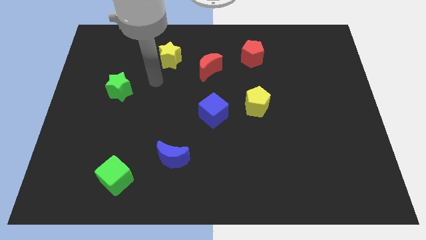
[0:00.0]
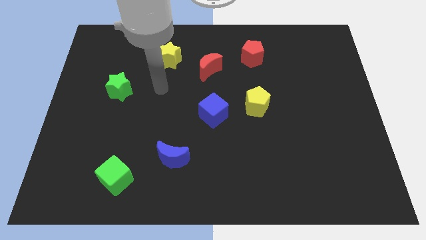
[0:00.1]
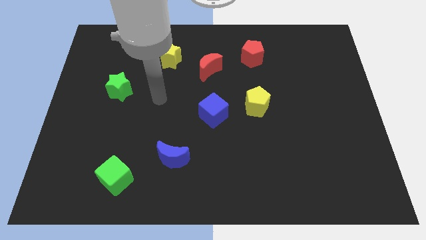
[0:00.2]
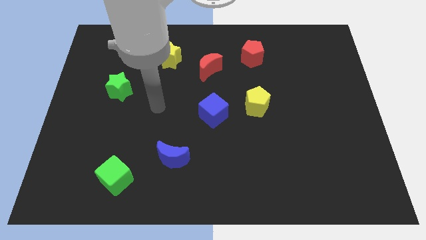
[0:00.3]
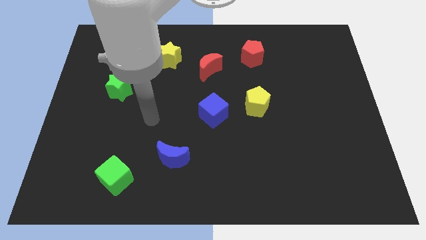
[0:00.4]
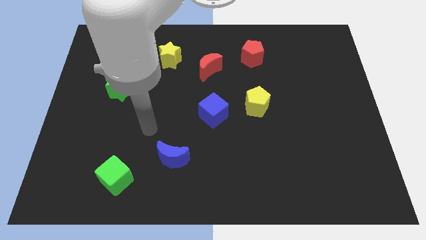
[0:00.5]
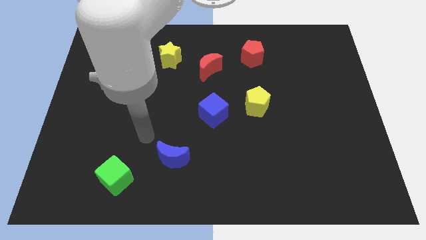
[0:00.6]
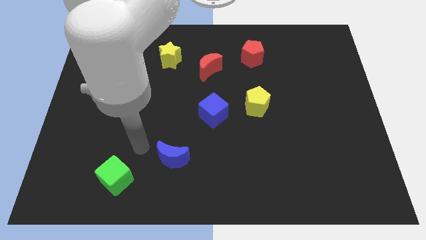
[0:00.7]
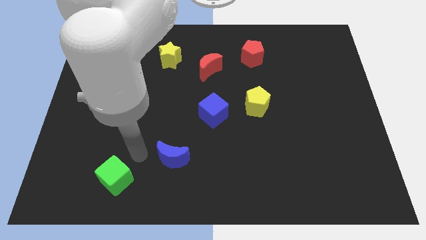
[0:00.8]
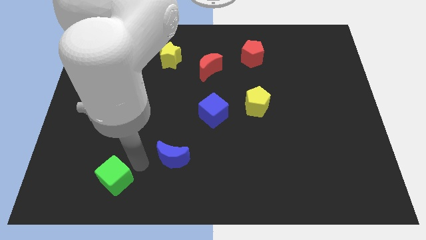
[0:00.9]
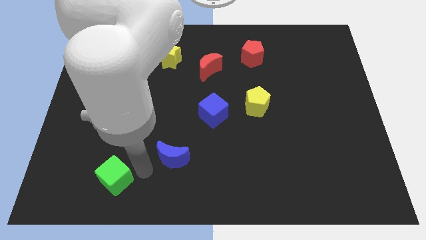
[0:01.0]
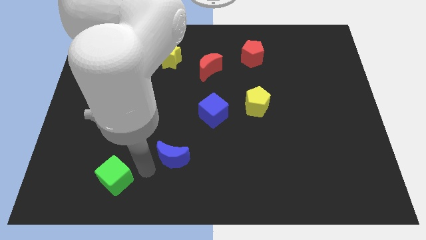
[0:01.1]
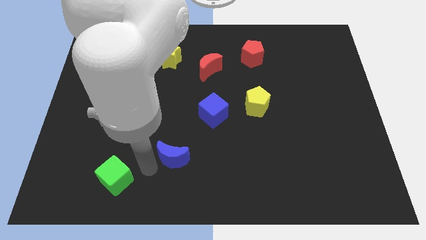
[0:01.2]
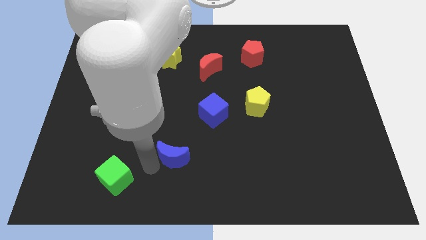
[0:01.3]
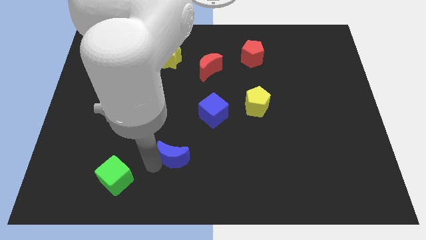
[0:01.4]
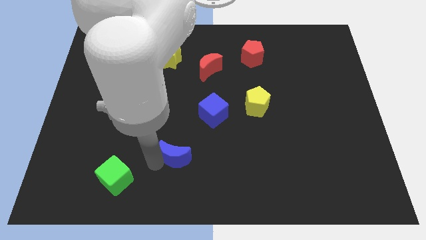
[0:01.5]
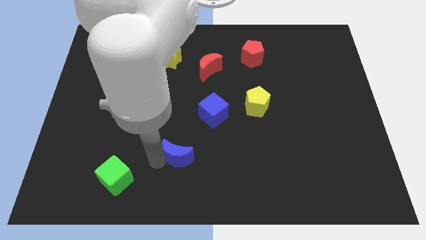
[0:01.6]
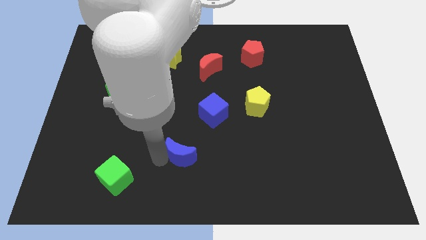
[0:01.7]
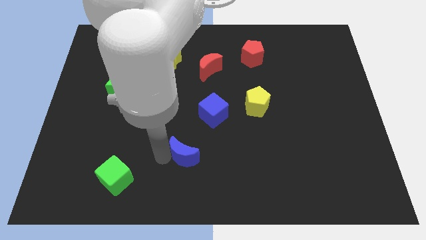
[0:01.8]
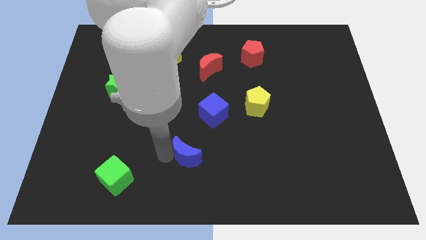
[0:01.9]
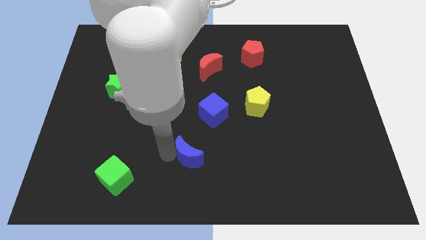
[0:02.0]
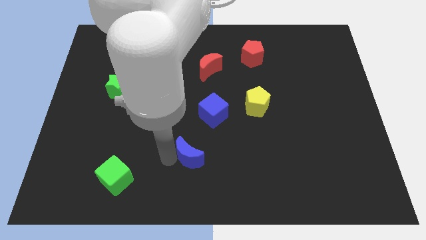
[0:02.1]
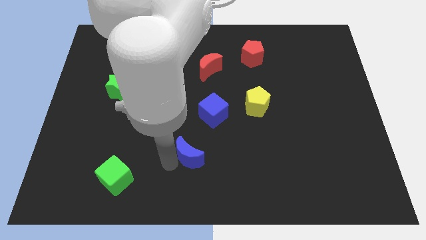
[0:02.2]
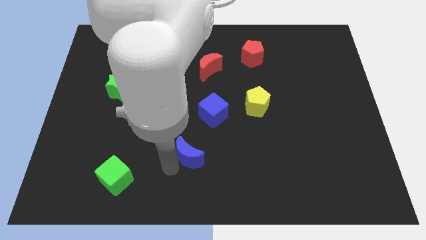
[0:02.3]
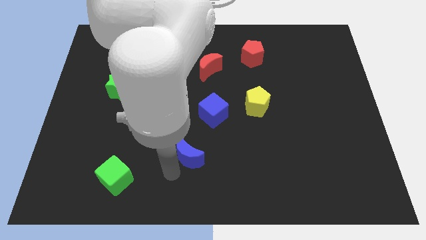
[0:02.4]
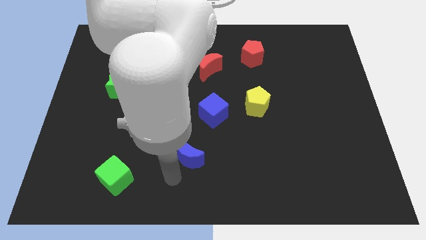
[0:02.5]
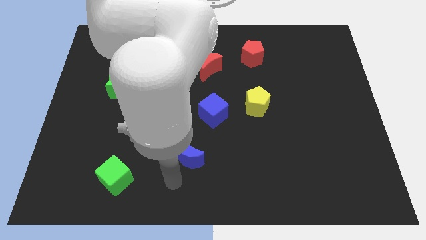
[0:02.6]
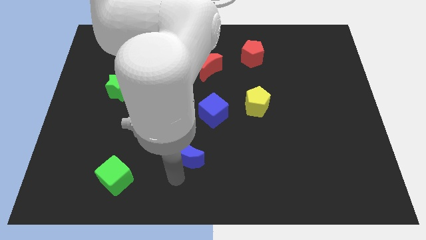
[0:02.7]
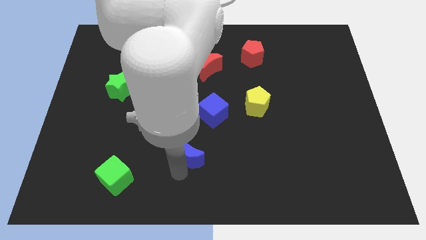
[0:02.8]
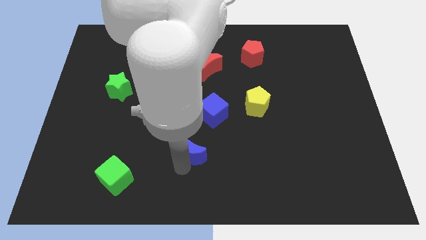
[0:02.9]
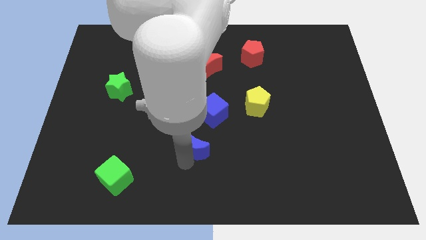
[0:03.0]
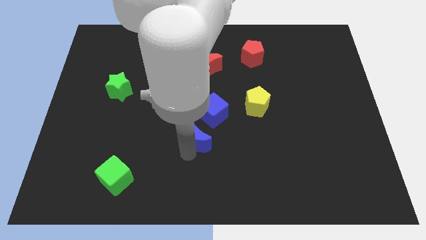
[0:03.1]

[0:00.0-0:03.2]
slightly slide the blue moon up and to the right diagonally

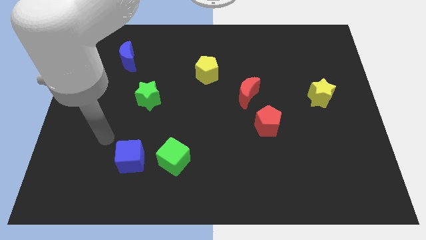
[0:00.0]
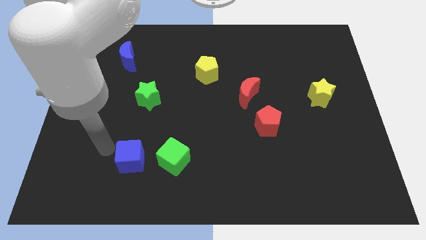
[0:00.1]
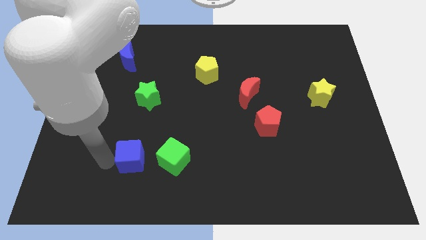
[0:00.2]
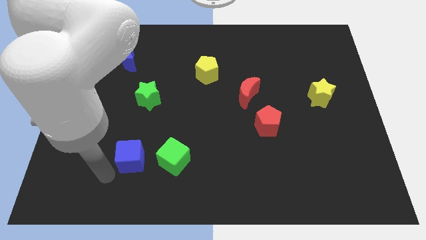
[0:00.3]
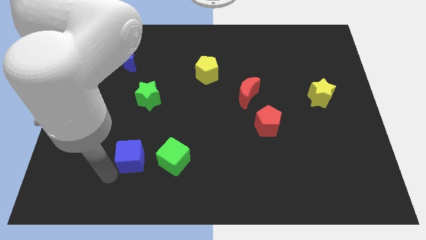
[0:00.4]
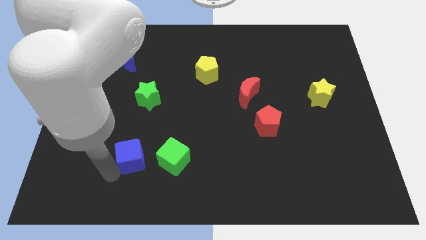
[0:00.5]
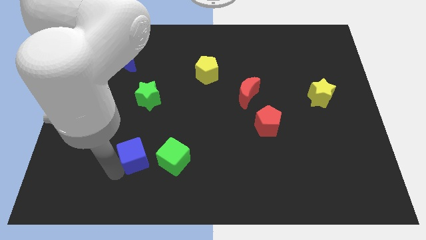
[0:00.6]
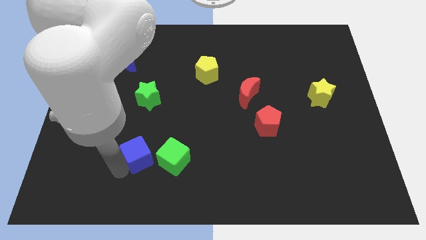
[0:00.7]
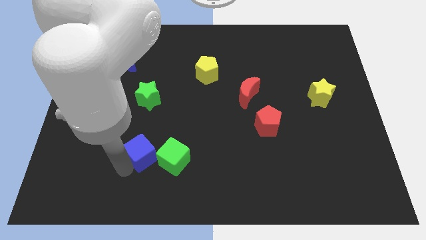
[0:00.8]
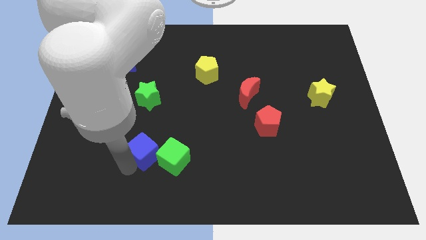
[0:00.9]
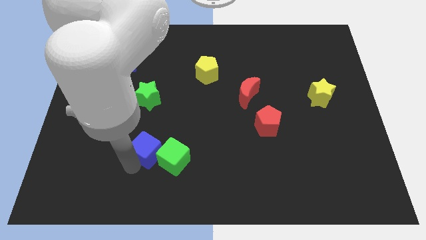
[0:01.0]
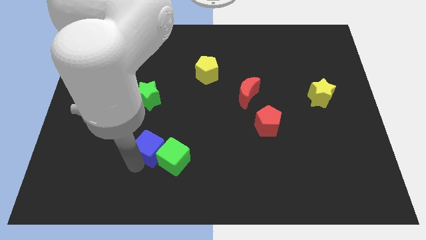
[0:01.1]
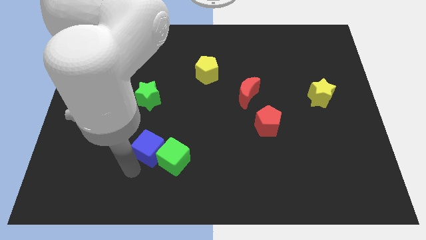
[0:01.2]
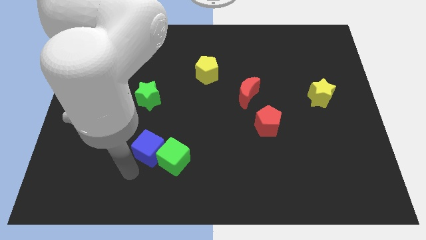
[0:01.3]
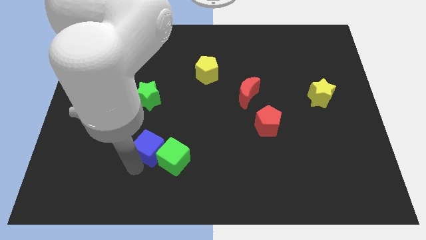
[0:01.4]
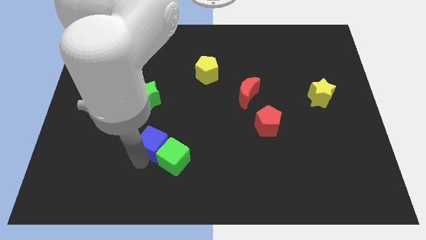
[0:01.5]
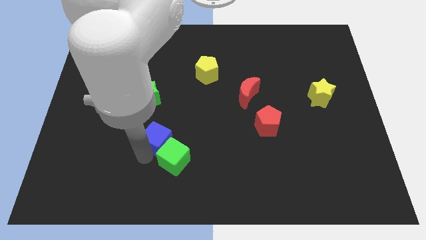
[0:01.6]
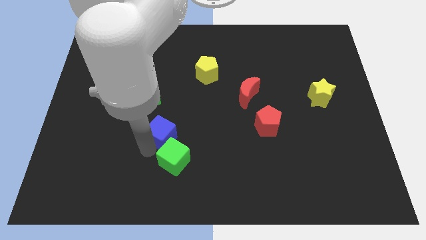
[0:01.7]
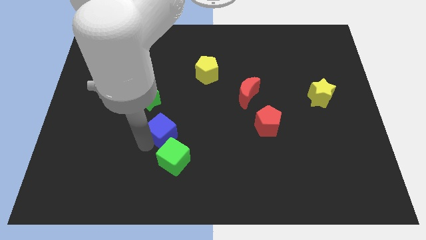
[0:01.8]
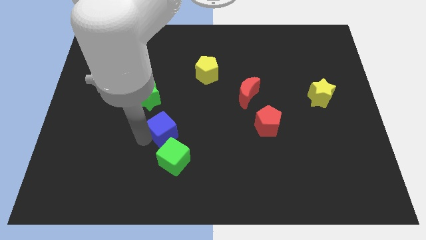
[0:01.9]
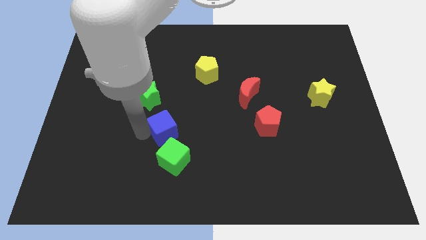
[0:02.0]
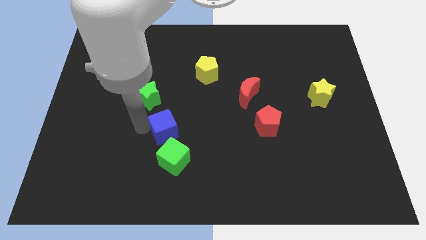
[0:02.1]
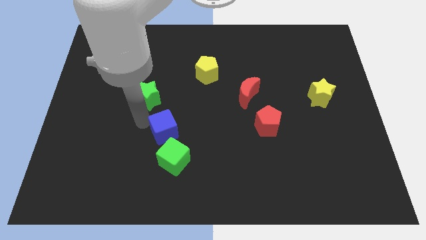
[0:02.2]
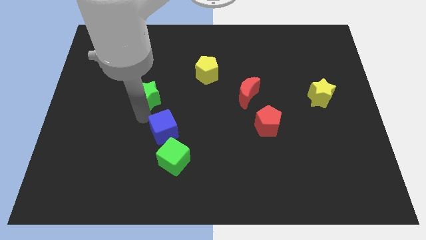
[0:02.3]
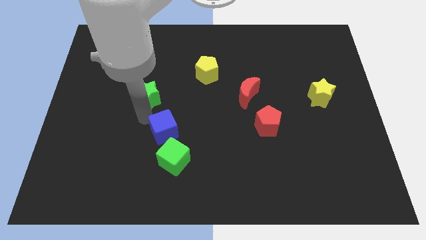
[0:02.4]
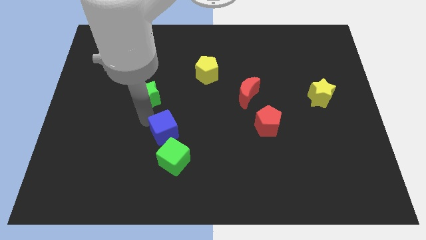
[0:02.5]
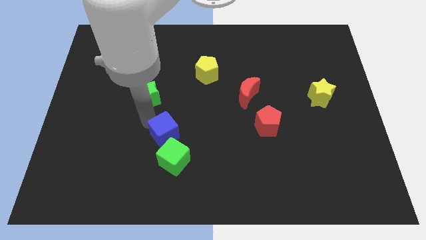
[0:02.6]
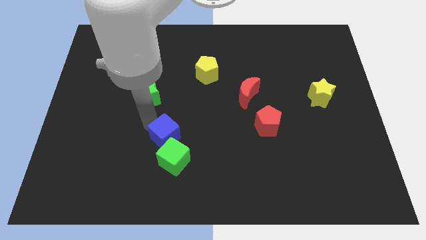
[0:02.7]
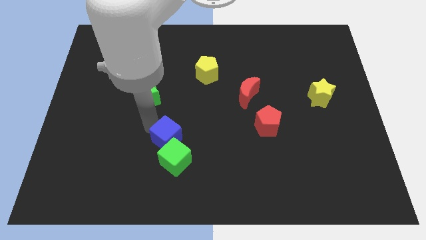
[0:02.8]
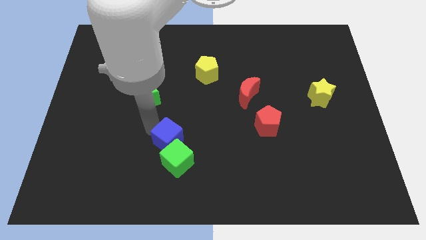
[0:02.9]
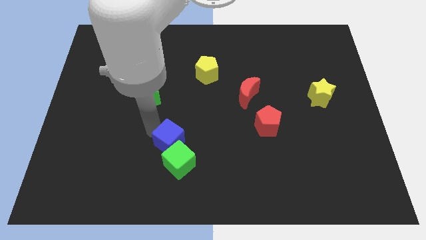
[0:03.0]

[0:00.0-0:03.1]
slightly slide the blue cube to the right

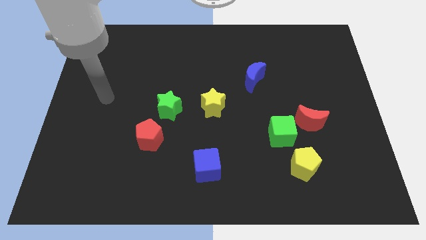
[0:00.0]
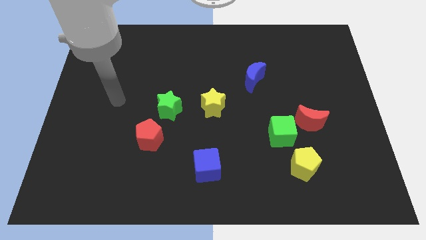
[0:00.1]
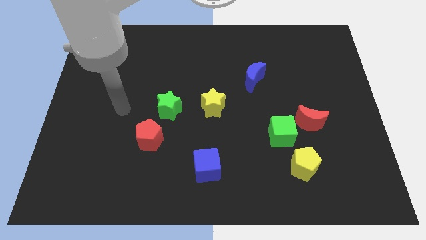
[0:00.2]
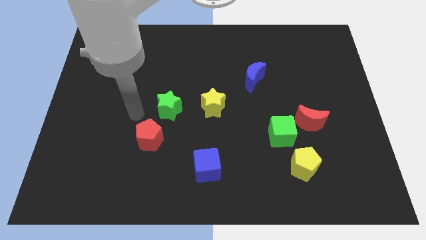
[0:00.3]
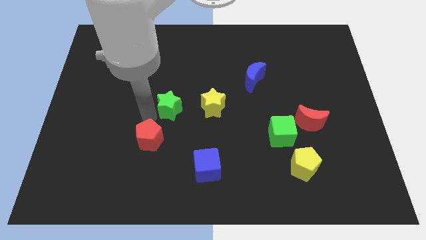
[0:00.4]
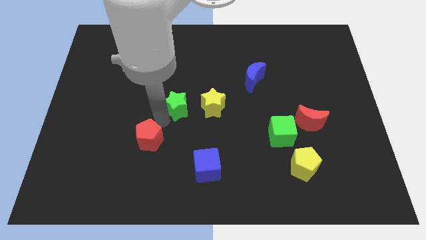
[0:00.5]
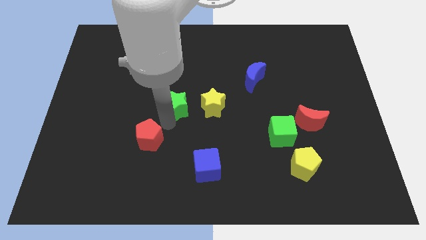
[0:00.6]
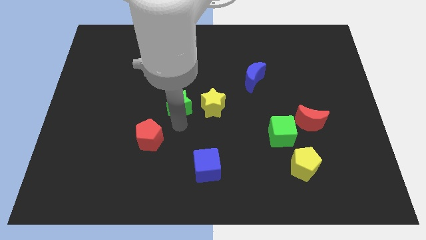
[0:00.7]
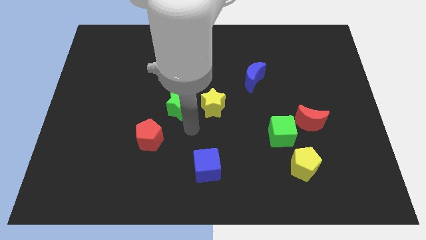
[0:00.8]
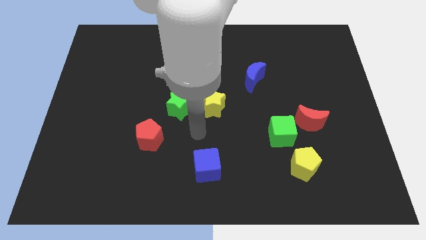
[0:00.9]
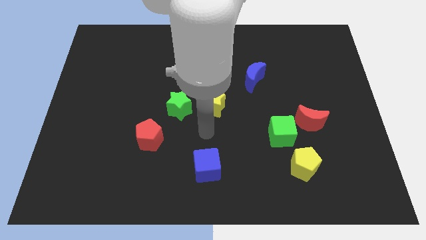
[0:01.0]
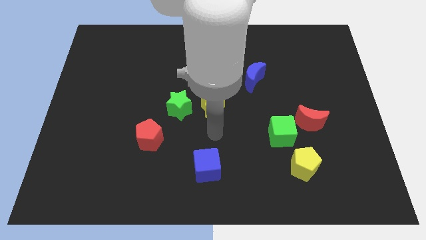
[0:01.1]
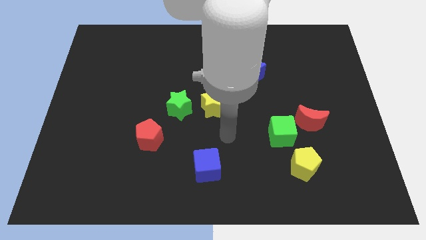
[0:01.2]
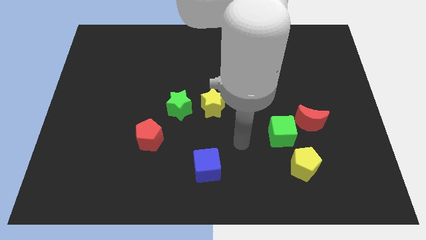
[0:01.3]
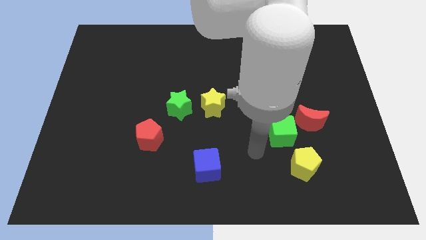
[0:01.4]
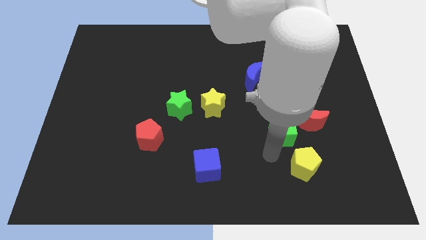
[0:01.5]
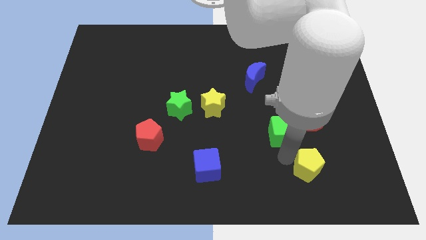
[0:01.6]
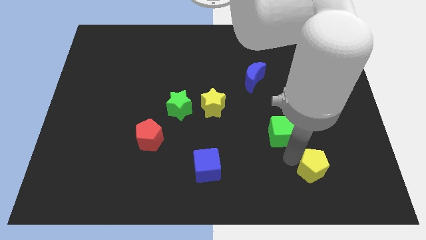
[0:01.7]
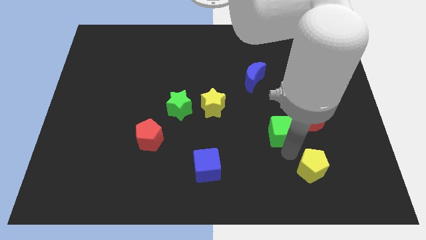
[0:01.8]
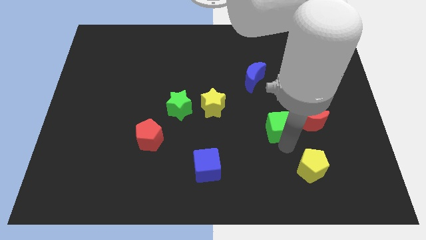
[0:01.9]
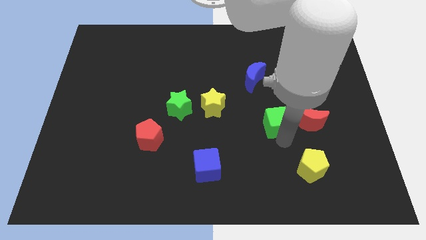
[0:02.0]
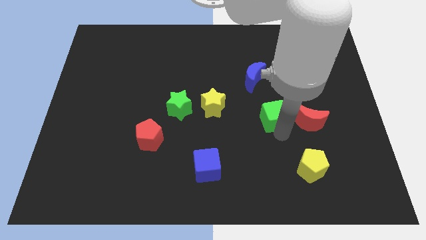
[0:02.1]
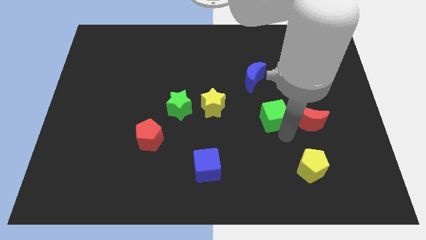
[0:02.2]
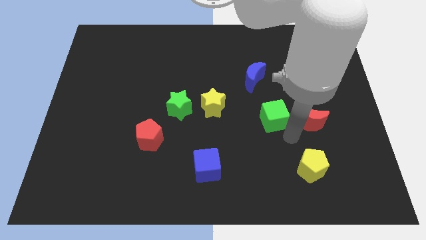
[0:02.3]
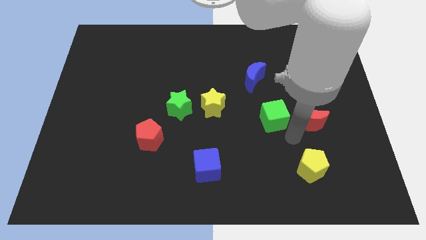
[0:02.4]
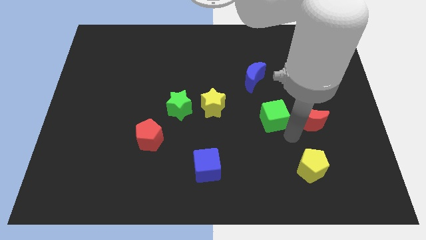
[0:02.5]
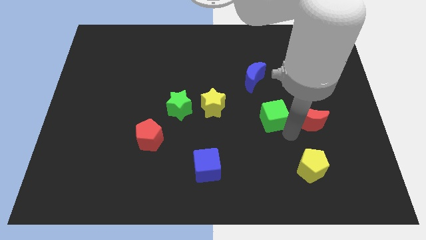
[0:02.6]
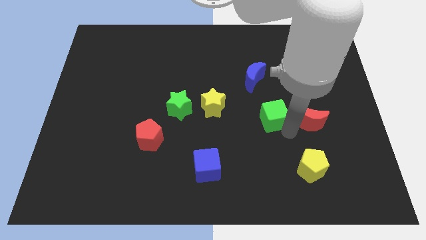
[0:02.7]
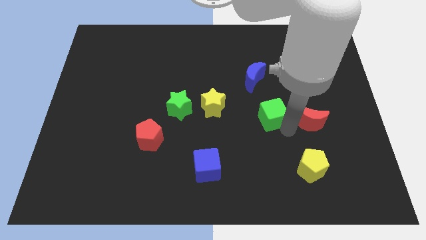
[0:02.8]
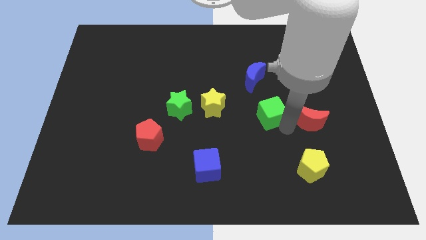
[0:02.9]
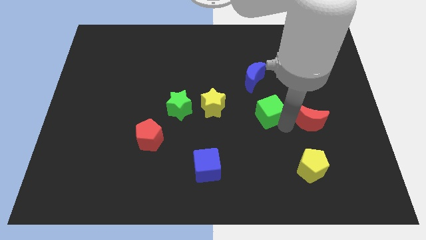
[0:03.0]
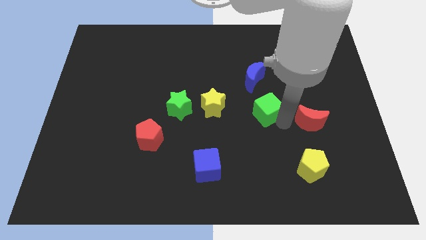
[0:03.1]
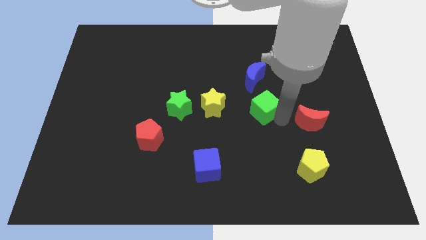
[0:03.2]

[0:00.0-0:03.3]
slide the green cube a little upwards and then left
